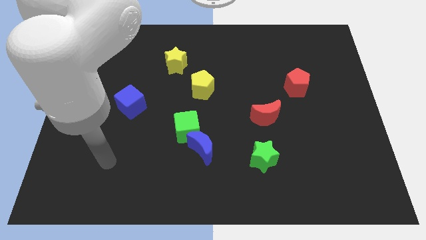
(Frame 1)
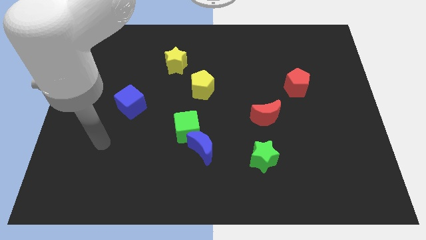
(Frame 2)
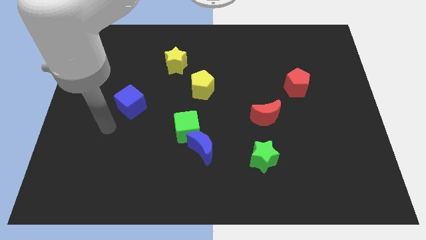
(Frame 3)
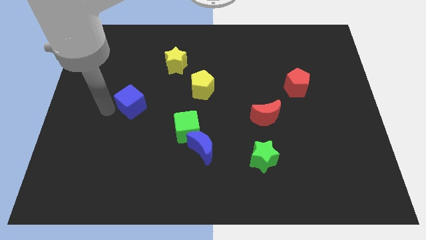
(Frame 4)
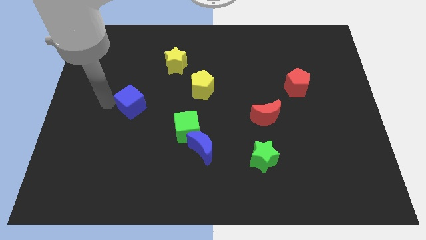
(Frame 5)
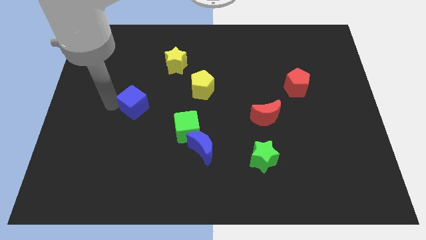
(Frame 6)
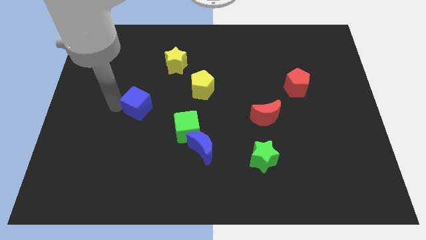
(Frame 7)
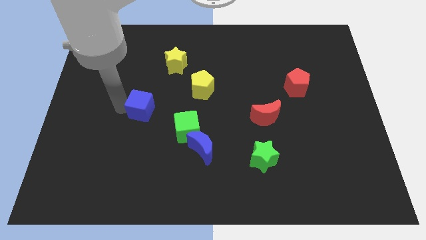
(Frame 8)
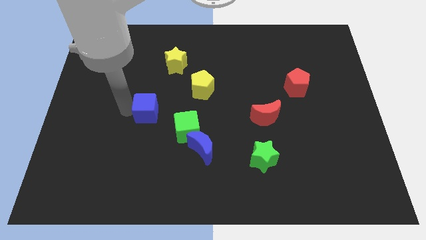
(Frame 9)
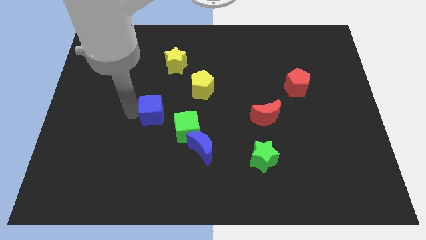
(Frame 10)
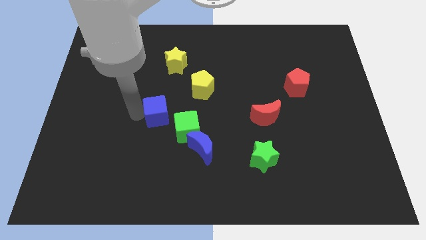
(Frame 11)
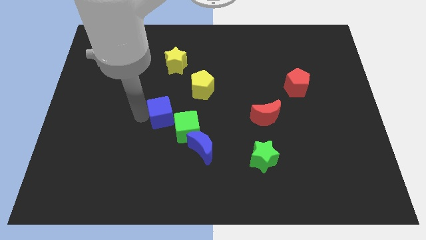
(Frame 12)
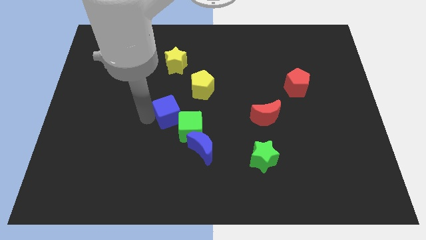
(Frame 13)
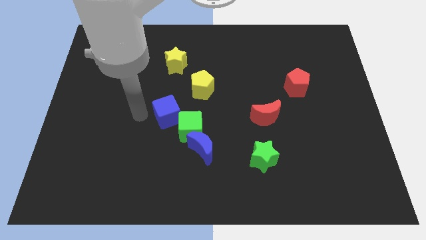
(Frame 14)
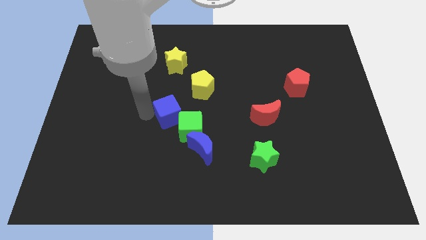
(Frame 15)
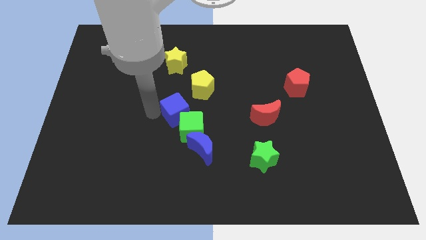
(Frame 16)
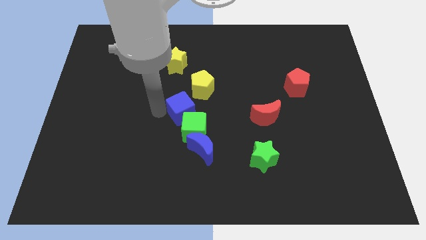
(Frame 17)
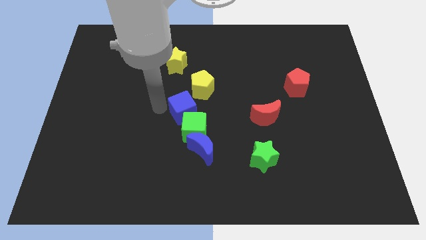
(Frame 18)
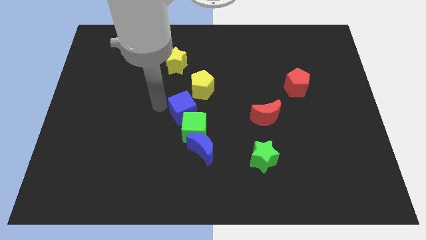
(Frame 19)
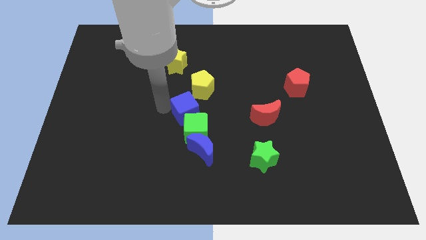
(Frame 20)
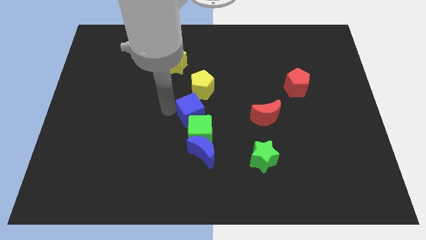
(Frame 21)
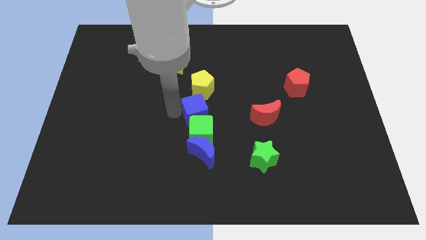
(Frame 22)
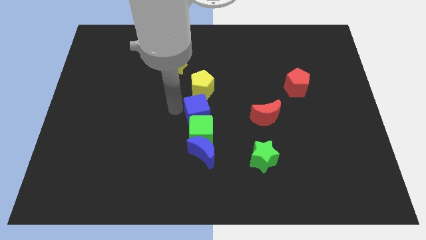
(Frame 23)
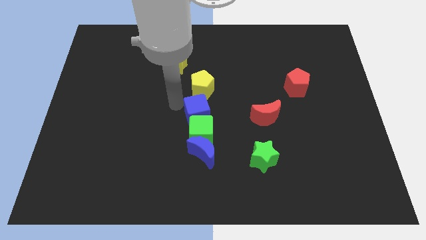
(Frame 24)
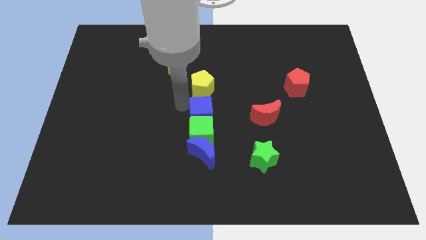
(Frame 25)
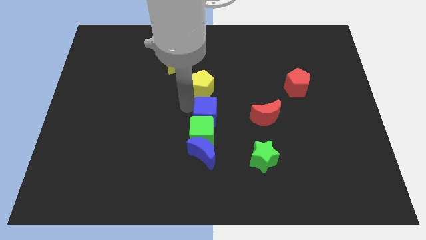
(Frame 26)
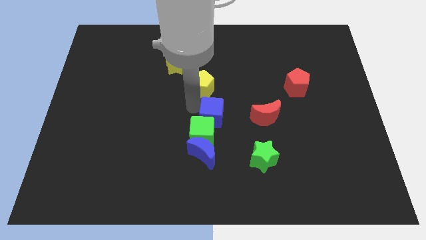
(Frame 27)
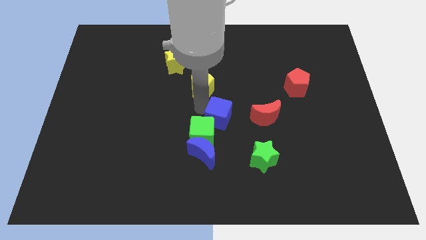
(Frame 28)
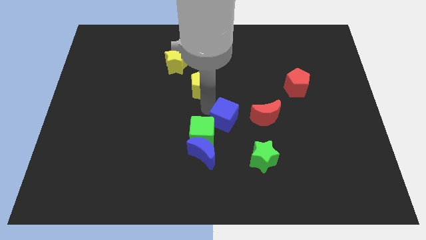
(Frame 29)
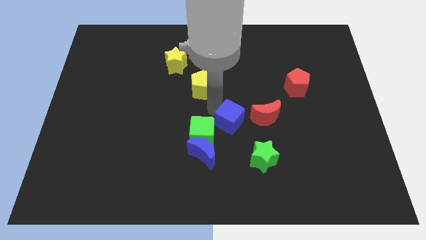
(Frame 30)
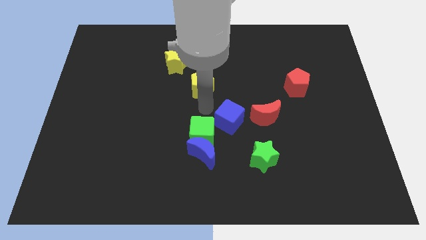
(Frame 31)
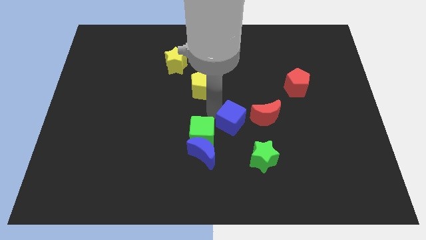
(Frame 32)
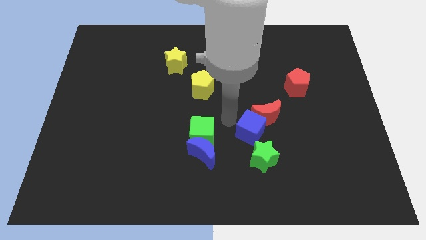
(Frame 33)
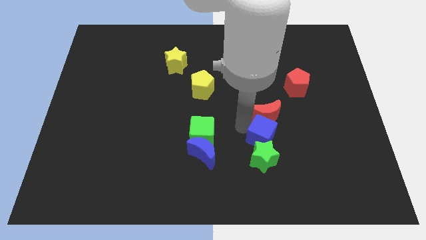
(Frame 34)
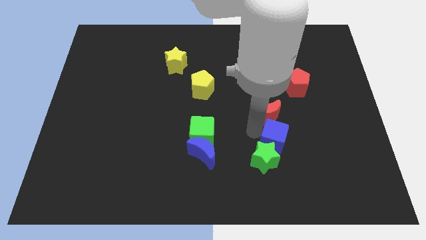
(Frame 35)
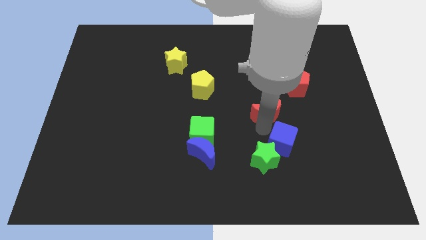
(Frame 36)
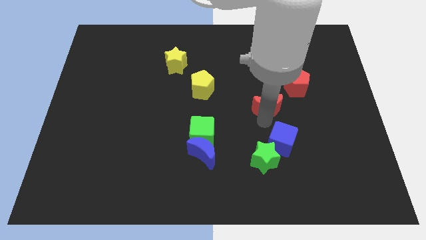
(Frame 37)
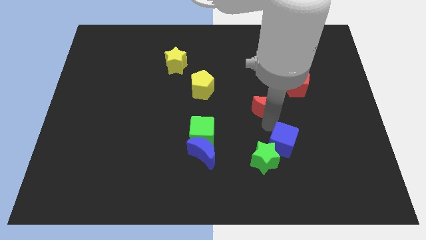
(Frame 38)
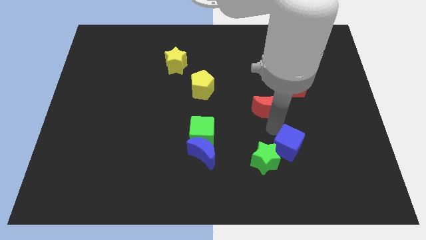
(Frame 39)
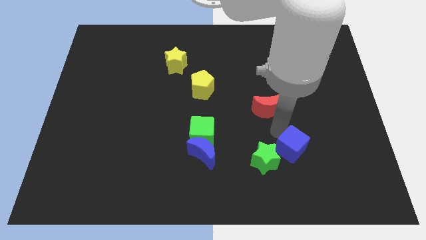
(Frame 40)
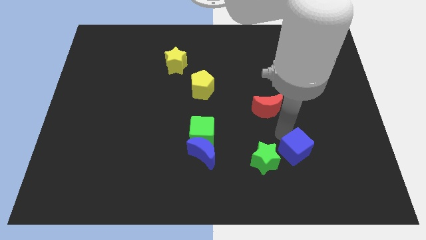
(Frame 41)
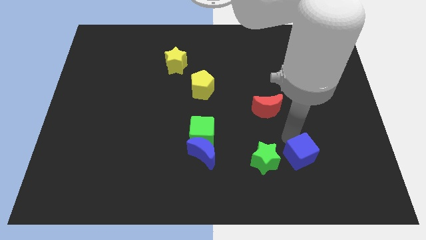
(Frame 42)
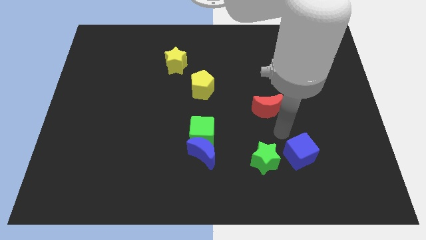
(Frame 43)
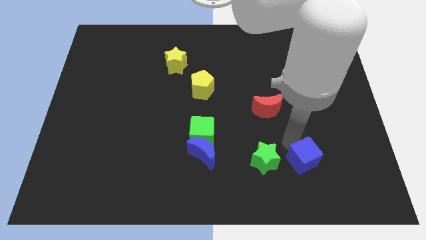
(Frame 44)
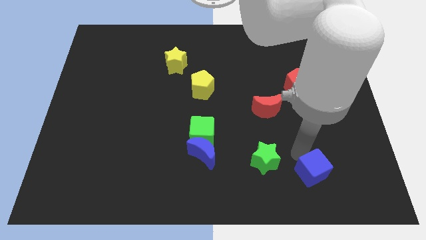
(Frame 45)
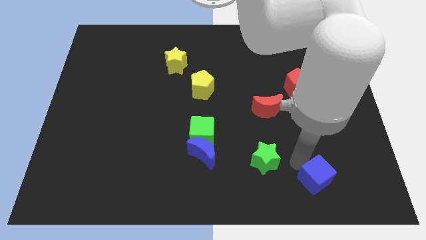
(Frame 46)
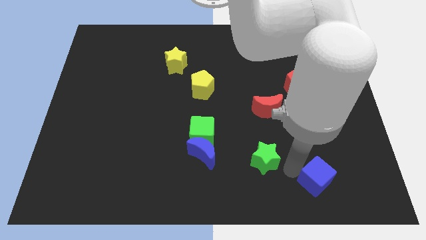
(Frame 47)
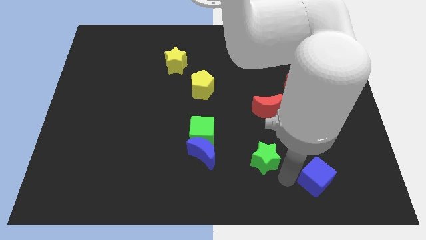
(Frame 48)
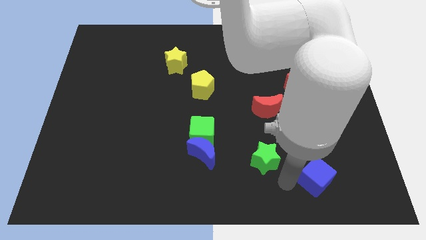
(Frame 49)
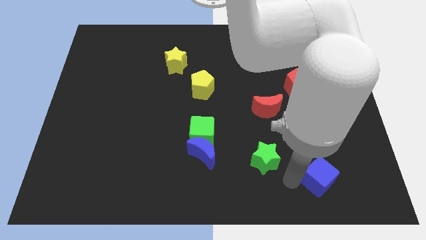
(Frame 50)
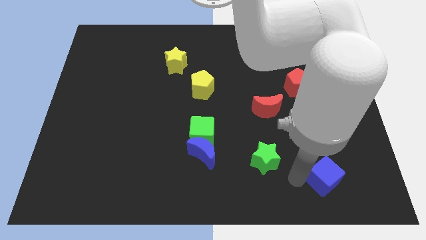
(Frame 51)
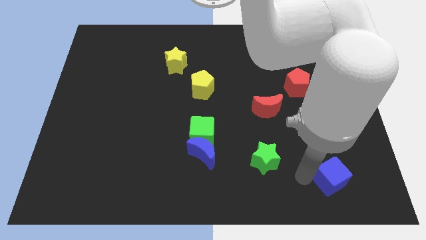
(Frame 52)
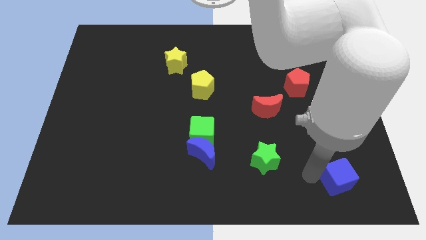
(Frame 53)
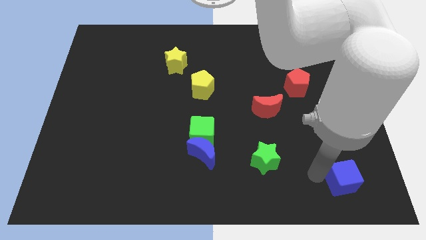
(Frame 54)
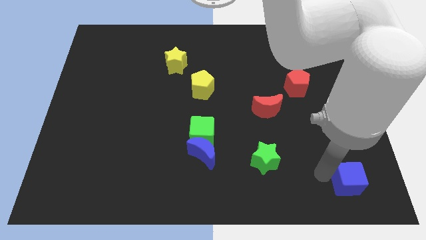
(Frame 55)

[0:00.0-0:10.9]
push the blue cube to the bottom right corner

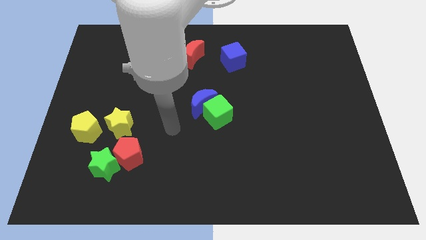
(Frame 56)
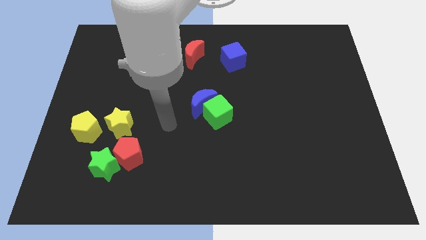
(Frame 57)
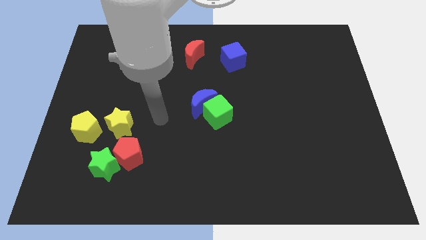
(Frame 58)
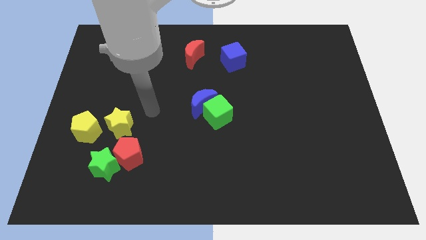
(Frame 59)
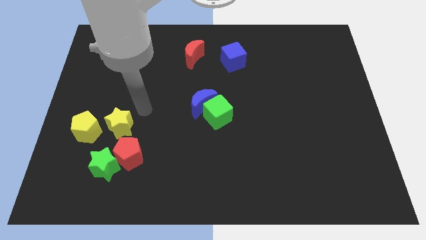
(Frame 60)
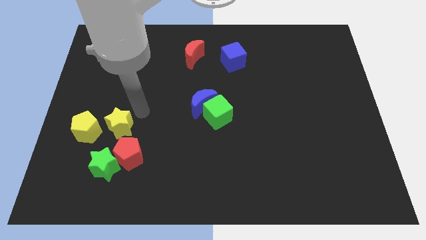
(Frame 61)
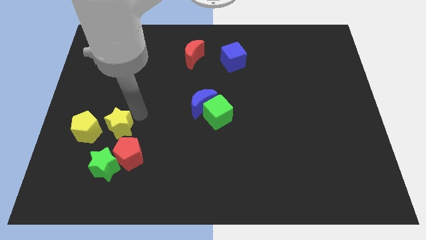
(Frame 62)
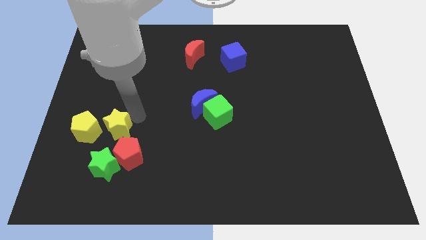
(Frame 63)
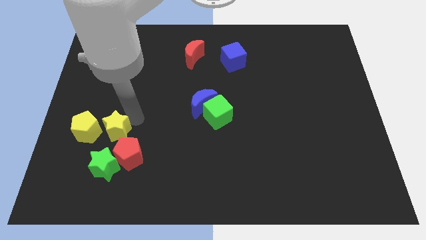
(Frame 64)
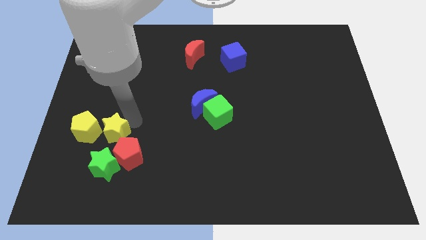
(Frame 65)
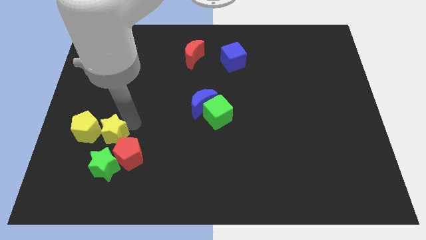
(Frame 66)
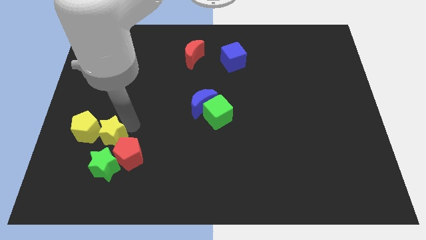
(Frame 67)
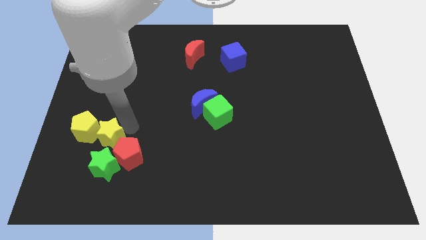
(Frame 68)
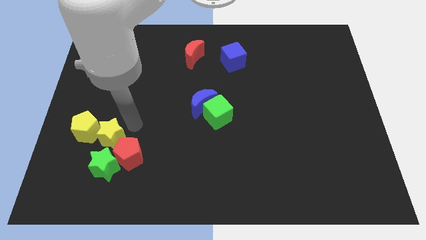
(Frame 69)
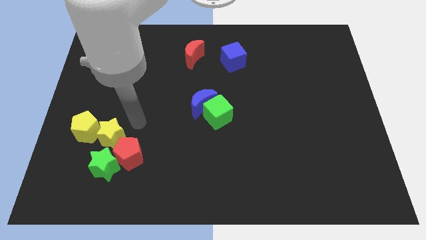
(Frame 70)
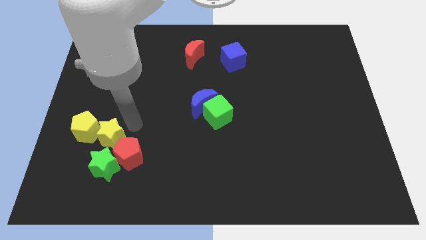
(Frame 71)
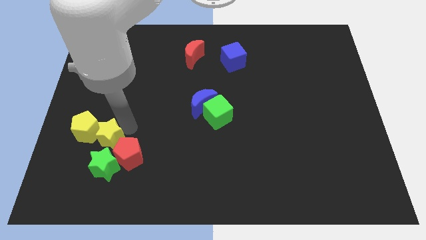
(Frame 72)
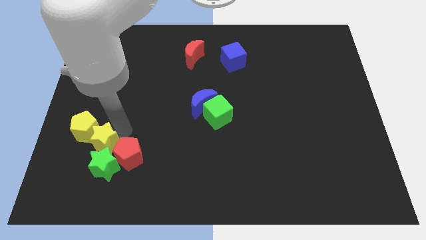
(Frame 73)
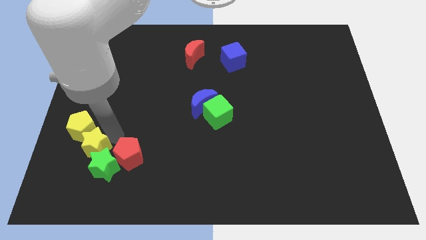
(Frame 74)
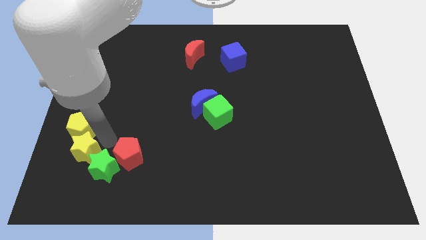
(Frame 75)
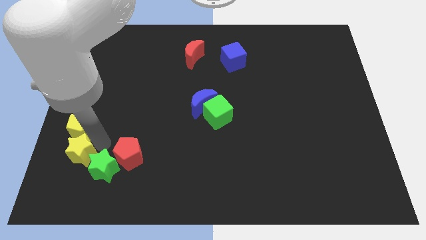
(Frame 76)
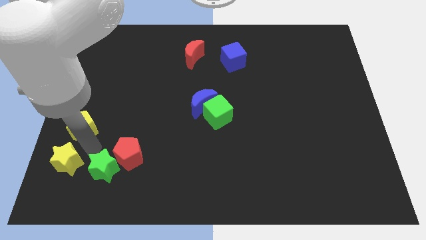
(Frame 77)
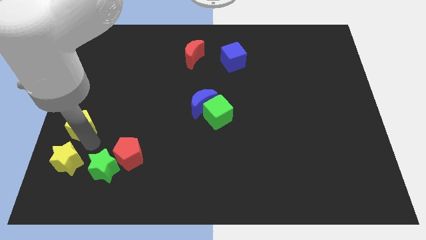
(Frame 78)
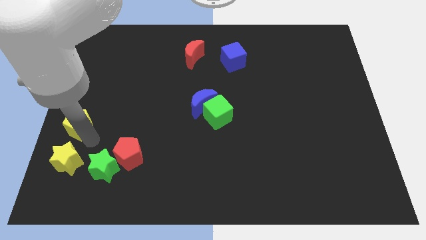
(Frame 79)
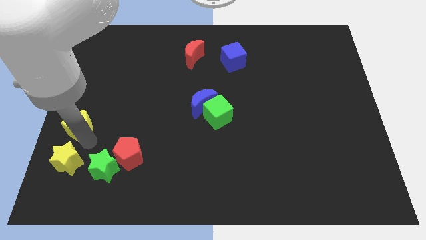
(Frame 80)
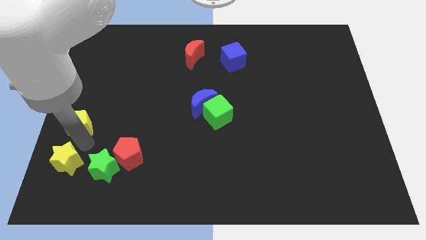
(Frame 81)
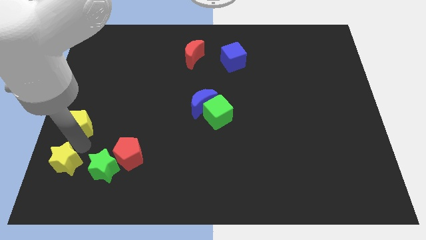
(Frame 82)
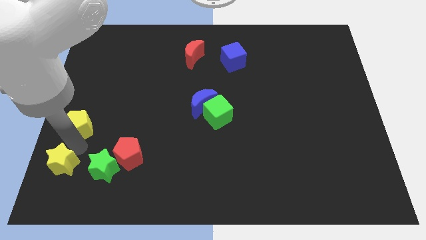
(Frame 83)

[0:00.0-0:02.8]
slide the yellow star to the bottom left corner
